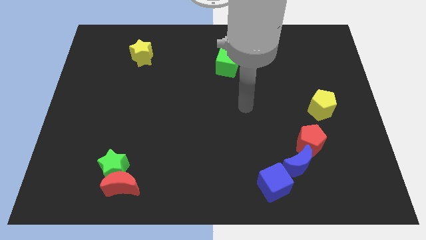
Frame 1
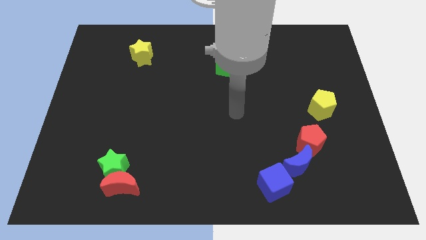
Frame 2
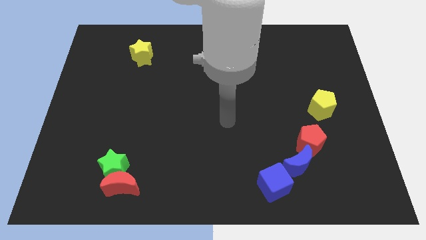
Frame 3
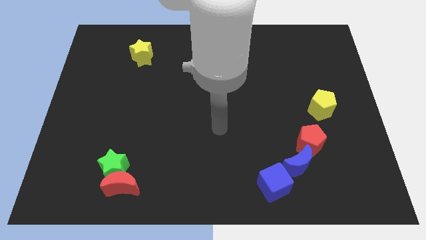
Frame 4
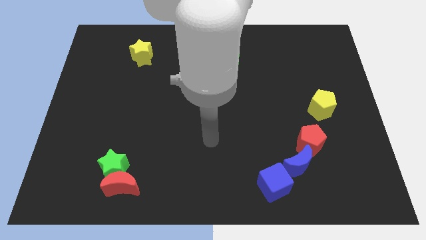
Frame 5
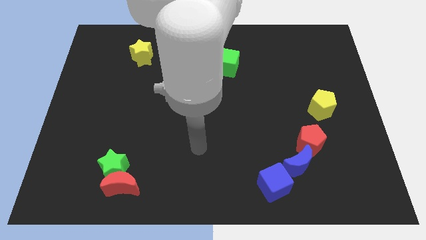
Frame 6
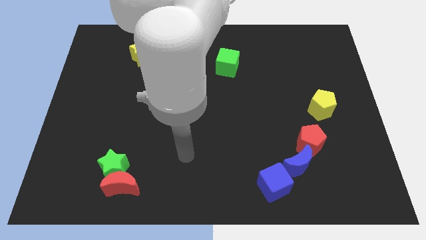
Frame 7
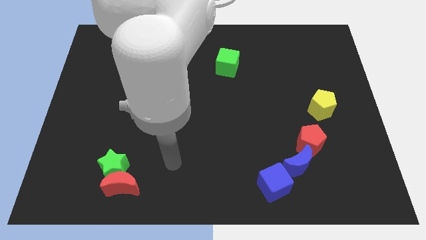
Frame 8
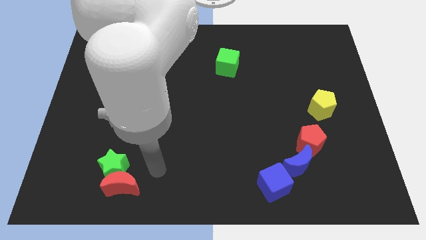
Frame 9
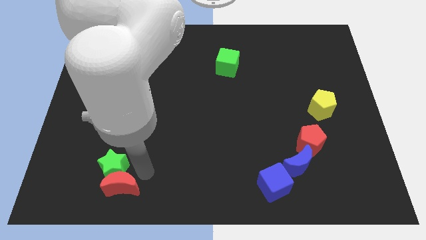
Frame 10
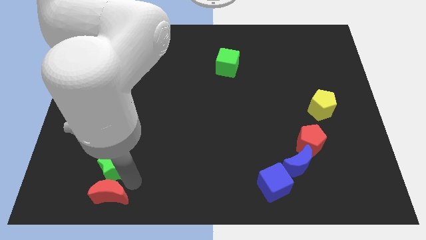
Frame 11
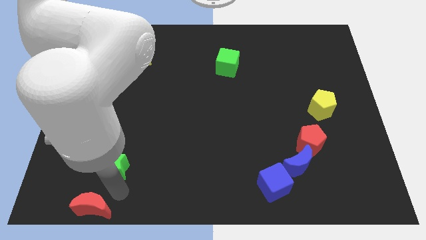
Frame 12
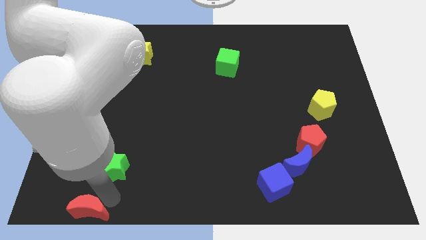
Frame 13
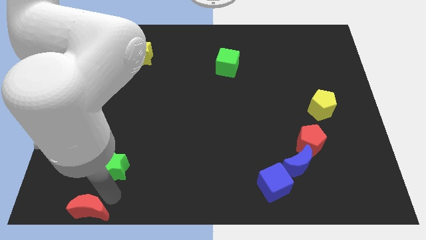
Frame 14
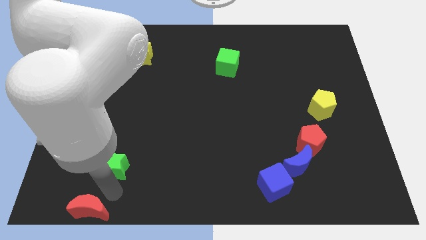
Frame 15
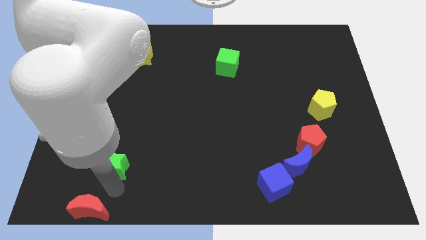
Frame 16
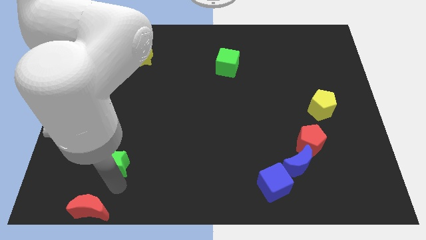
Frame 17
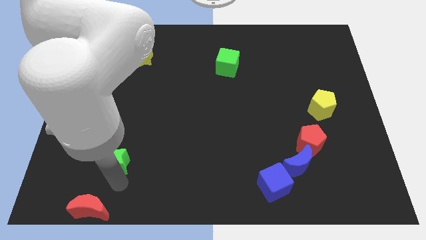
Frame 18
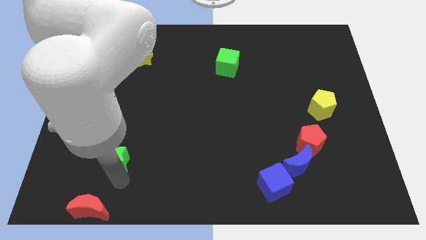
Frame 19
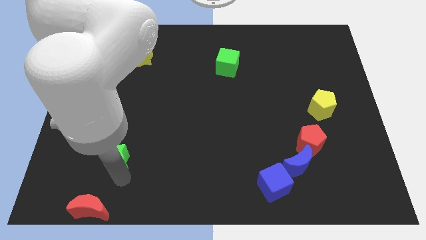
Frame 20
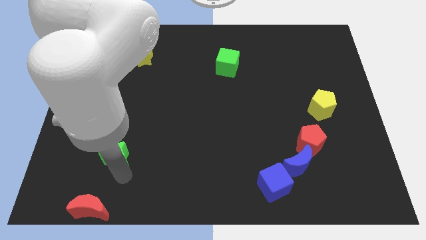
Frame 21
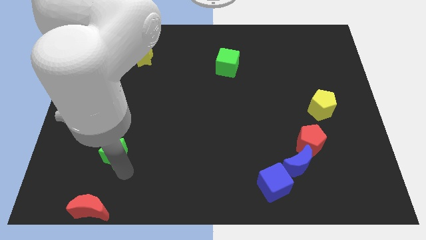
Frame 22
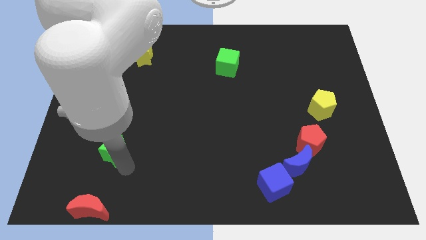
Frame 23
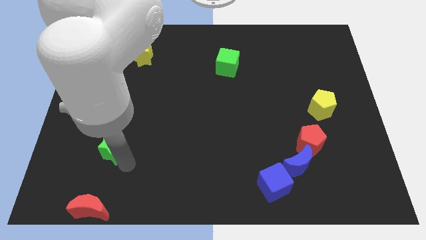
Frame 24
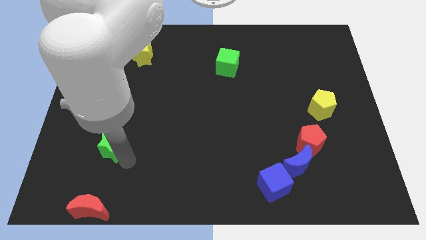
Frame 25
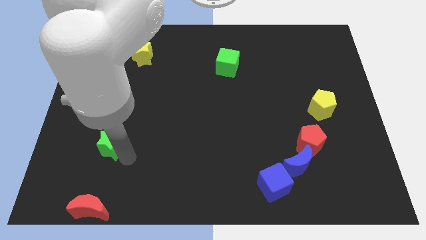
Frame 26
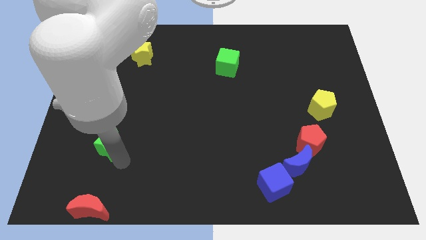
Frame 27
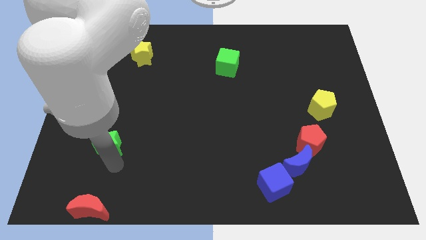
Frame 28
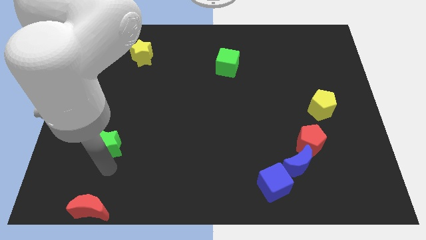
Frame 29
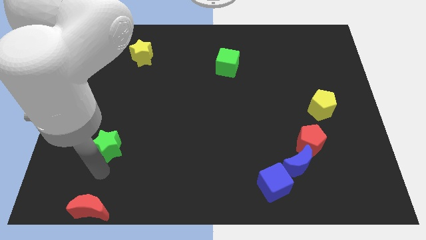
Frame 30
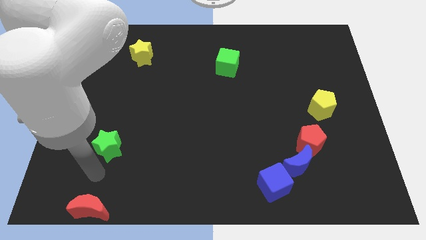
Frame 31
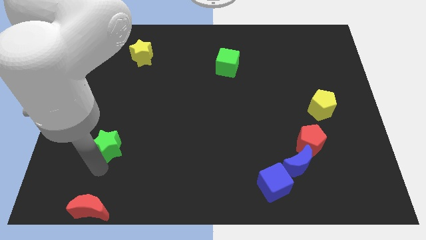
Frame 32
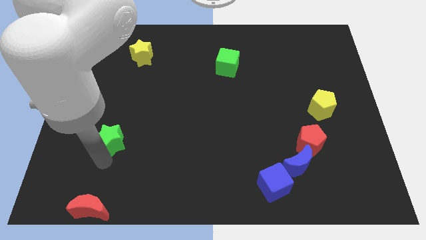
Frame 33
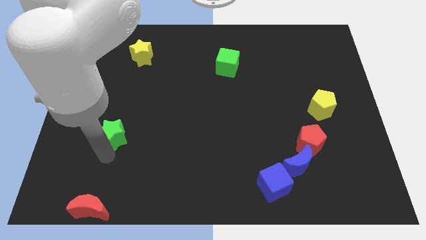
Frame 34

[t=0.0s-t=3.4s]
slightly slide the green star up

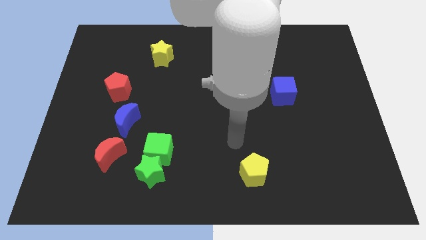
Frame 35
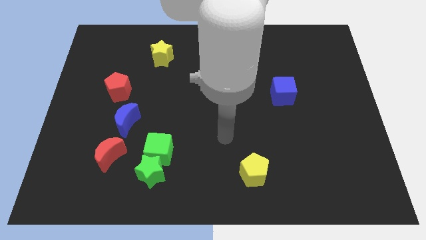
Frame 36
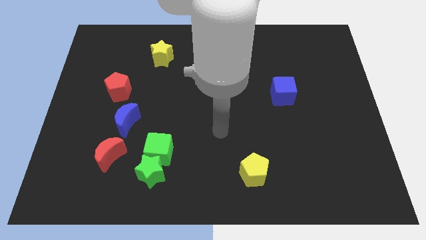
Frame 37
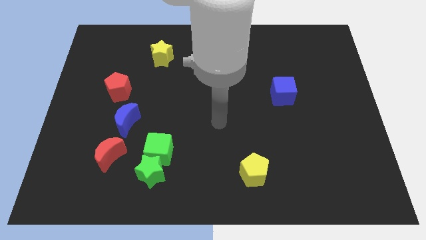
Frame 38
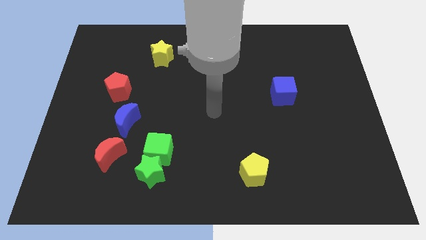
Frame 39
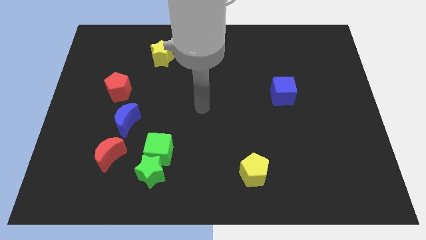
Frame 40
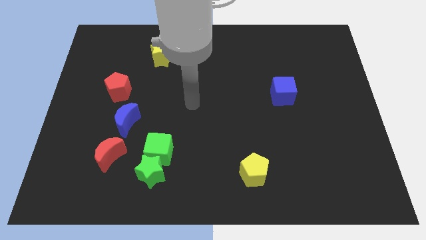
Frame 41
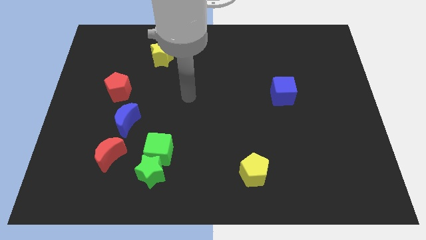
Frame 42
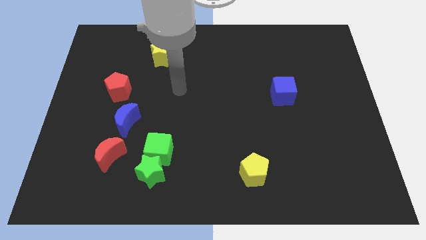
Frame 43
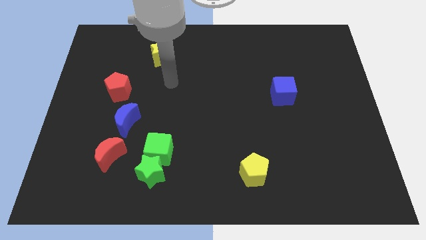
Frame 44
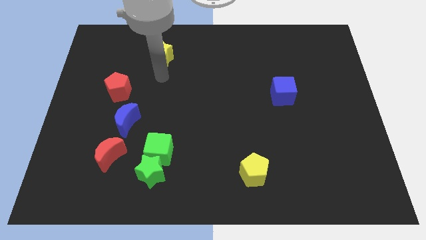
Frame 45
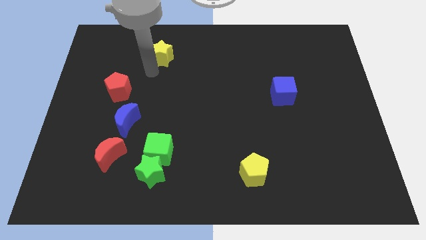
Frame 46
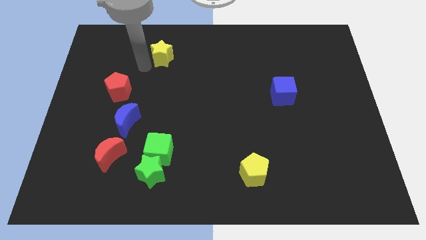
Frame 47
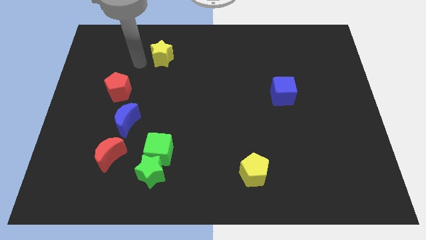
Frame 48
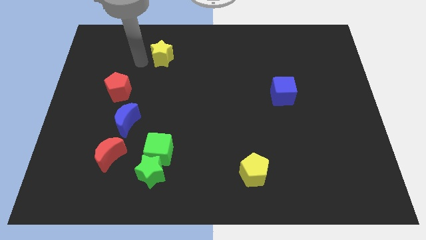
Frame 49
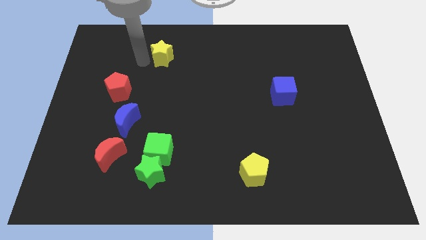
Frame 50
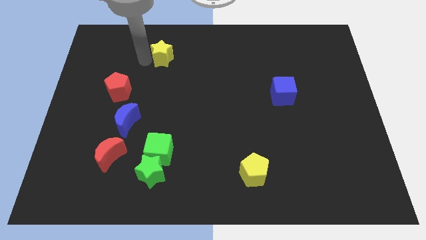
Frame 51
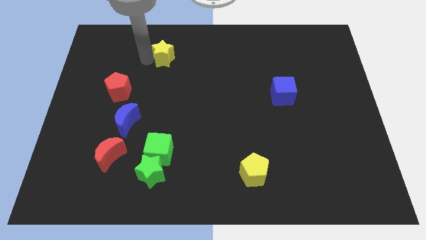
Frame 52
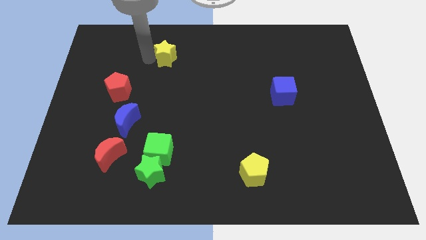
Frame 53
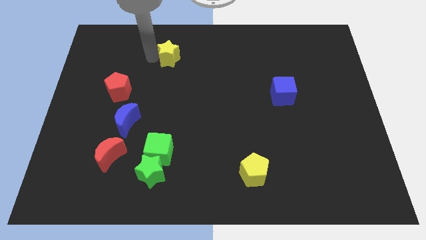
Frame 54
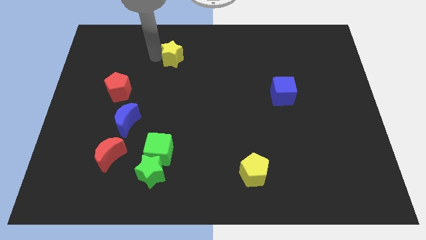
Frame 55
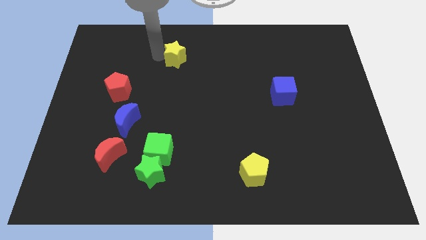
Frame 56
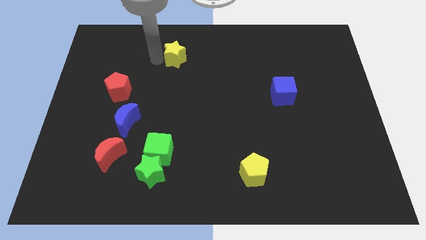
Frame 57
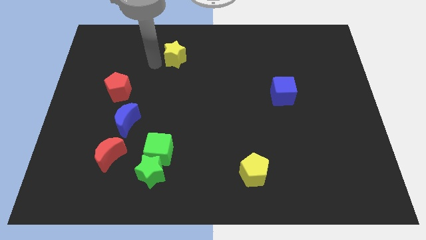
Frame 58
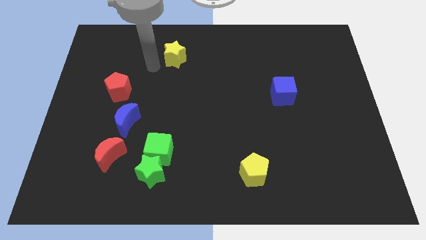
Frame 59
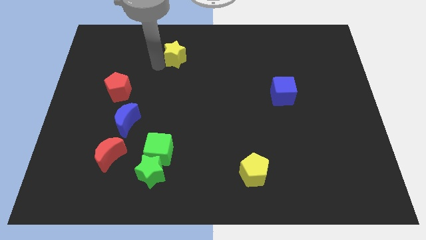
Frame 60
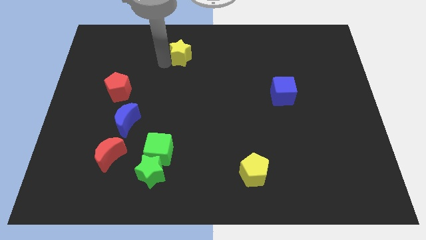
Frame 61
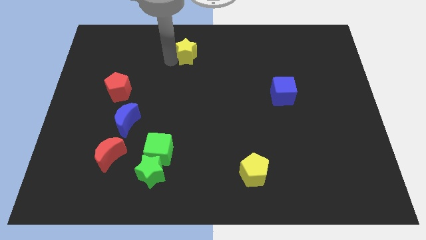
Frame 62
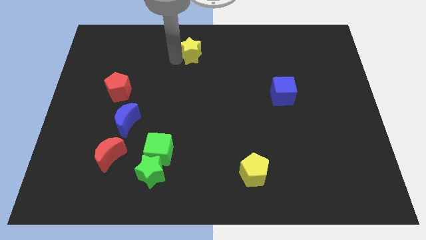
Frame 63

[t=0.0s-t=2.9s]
slightly push the yellow star to the right

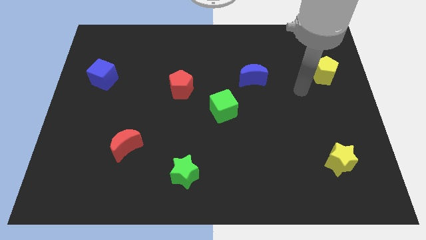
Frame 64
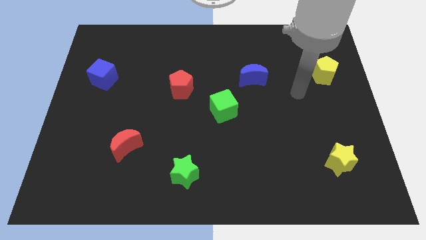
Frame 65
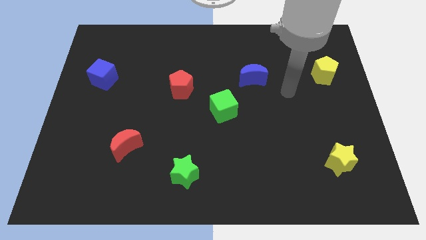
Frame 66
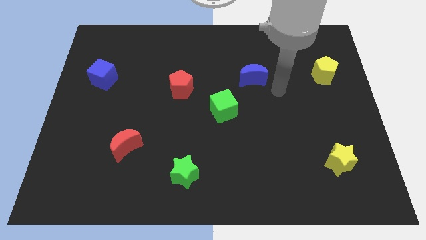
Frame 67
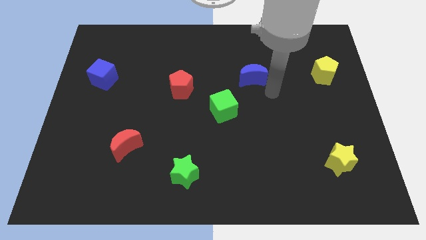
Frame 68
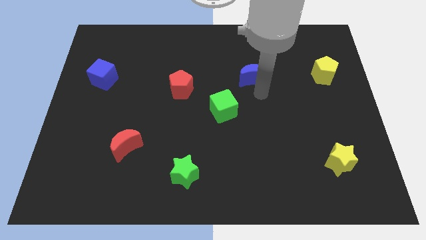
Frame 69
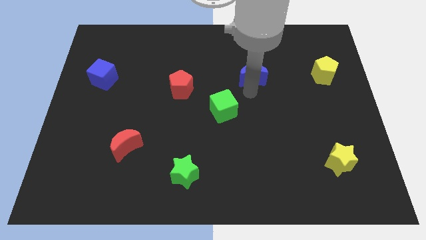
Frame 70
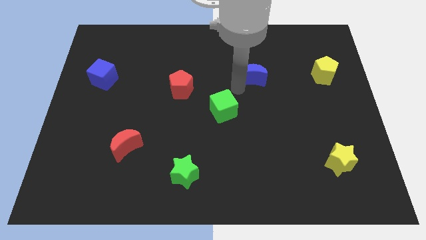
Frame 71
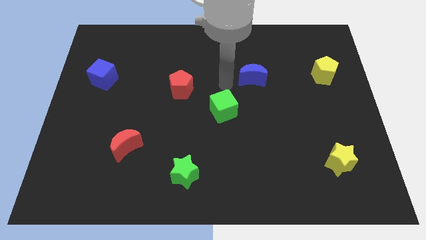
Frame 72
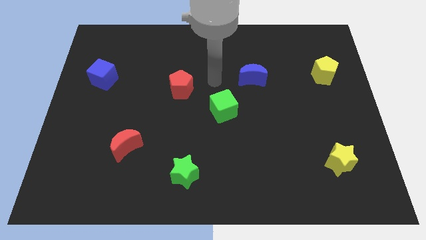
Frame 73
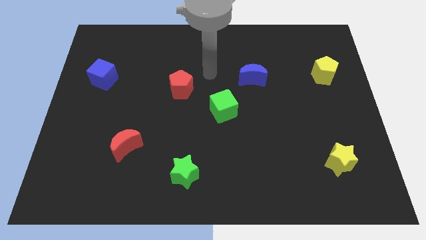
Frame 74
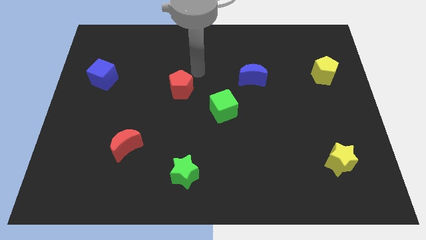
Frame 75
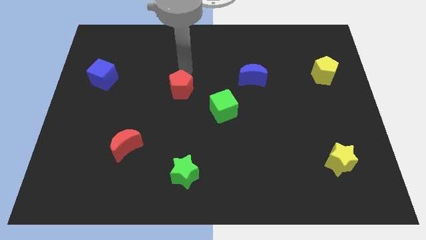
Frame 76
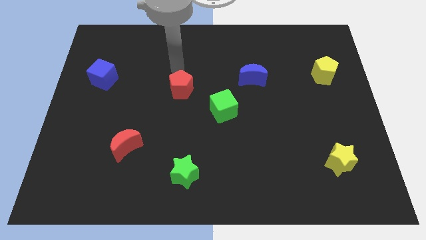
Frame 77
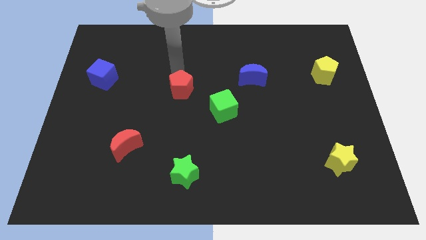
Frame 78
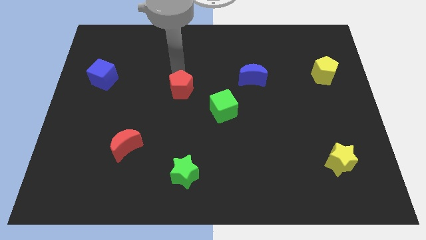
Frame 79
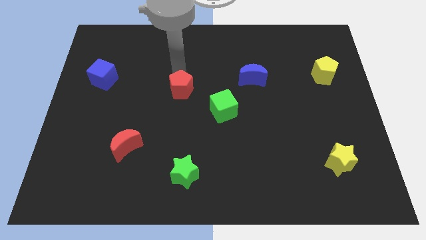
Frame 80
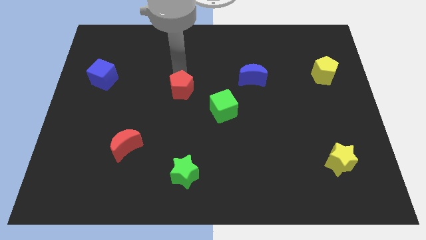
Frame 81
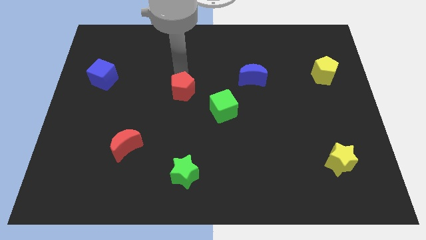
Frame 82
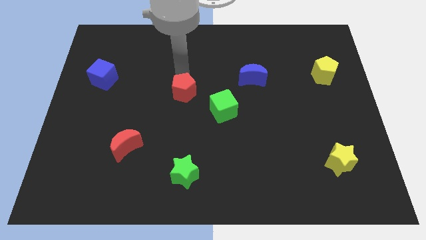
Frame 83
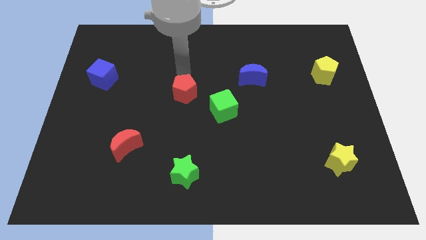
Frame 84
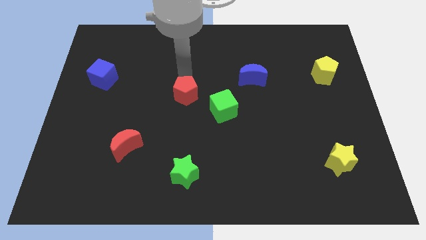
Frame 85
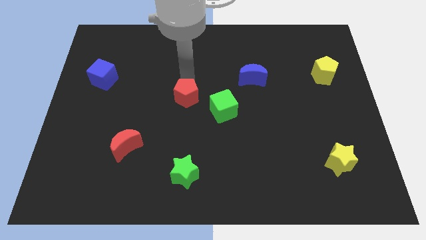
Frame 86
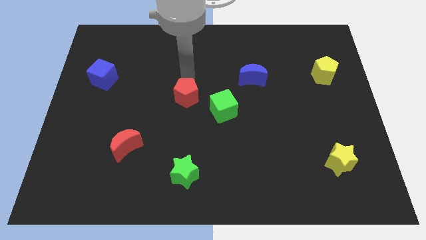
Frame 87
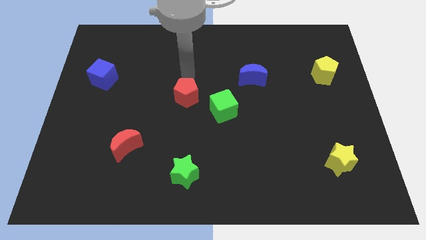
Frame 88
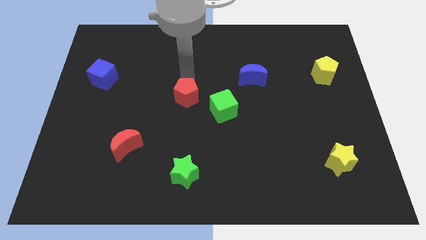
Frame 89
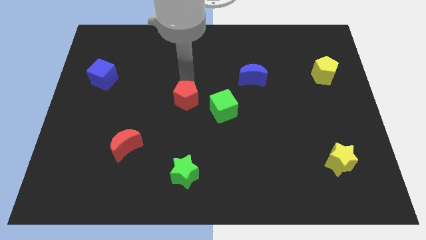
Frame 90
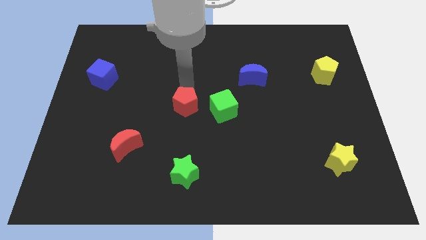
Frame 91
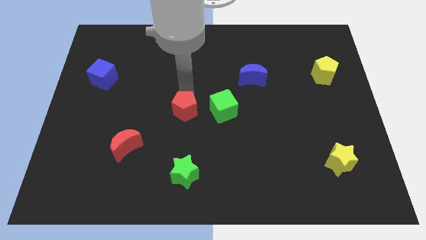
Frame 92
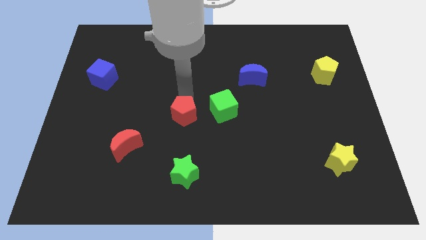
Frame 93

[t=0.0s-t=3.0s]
push the red pentagon a little down
